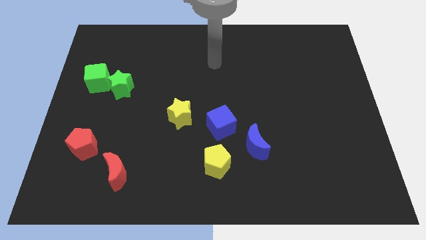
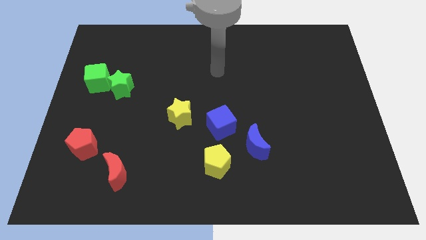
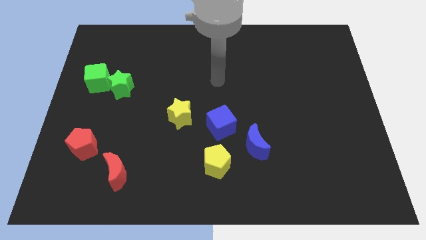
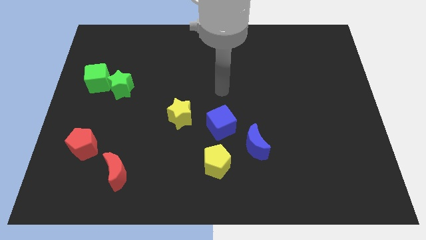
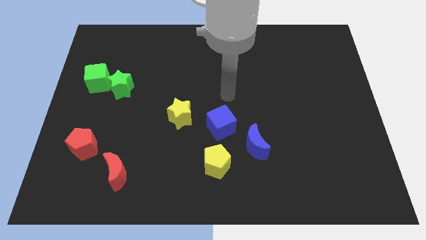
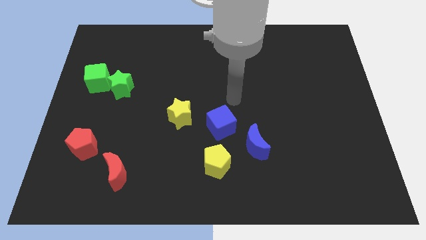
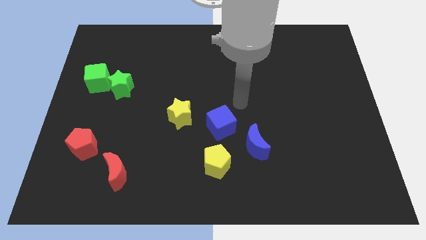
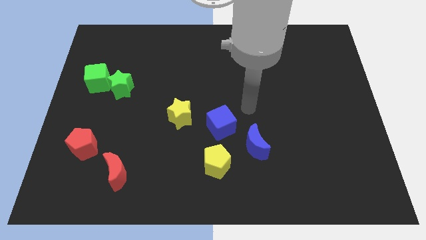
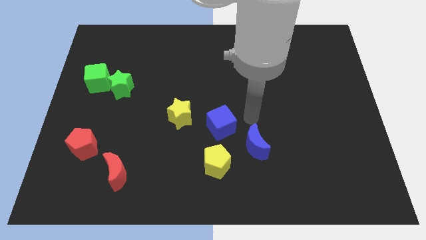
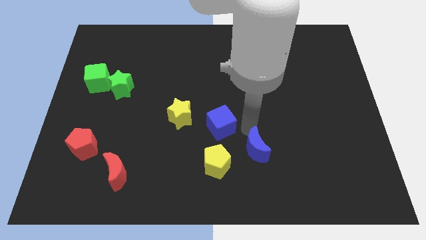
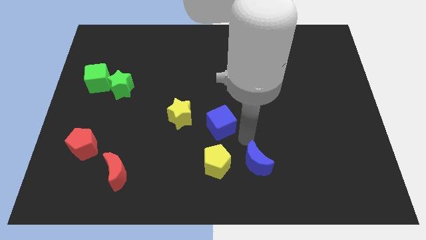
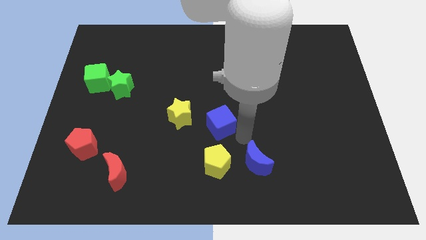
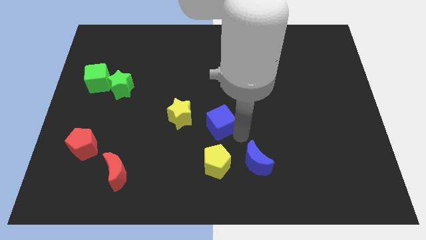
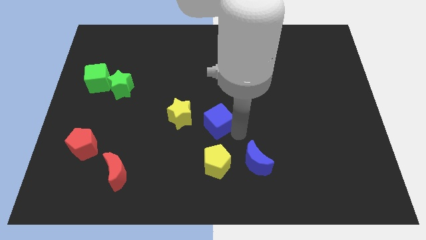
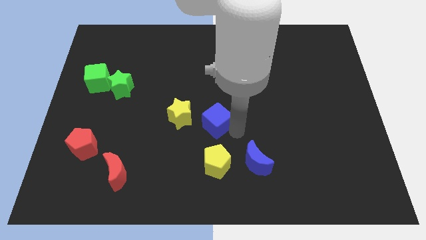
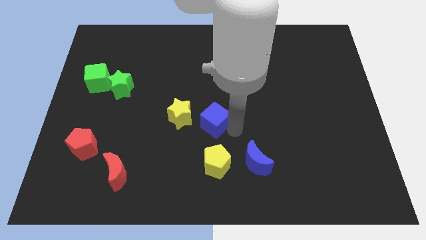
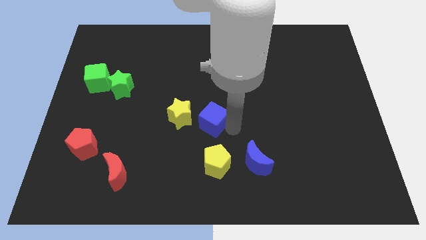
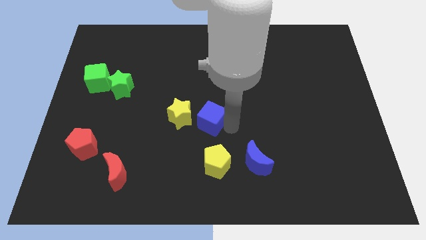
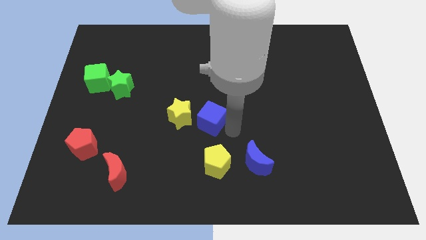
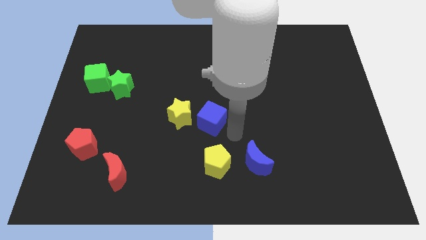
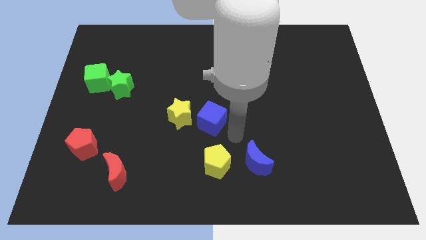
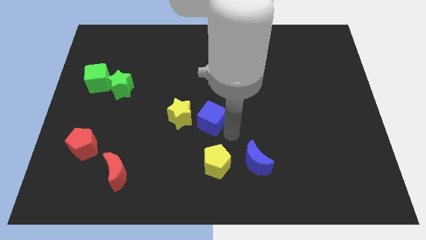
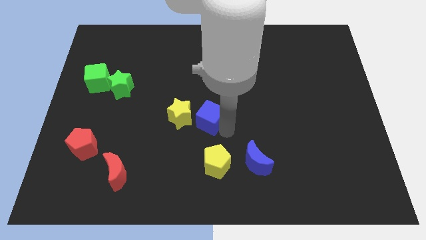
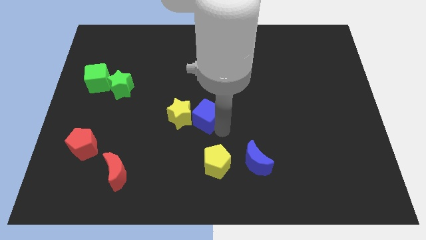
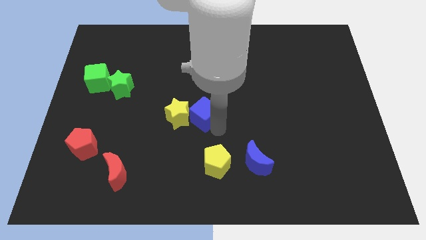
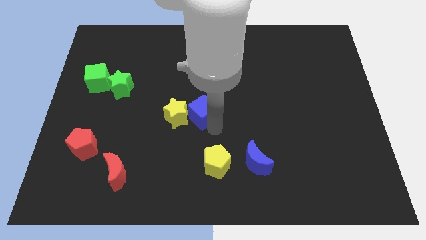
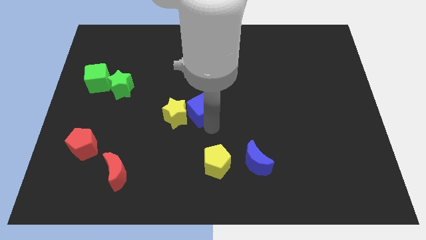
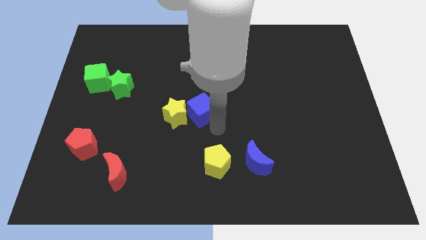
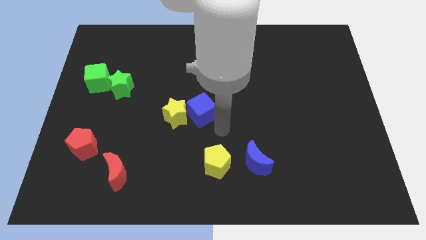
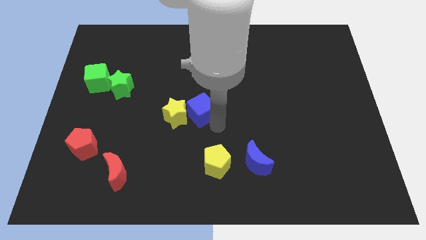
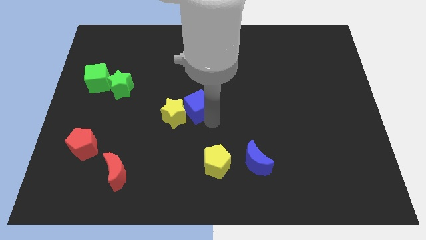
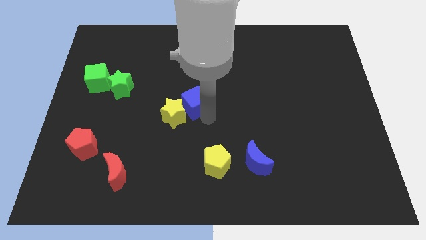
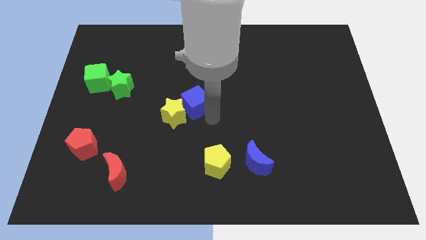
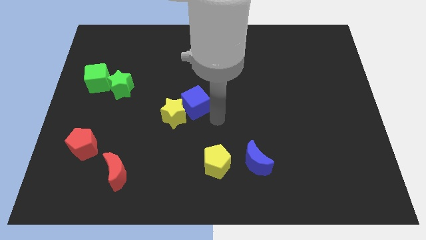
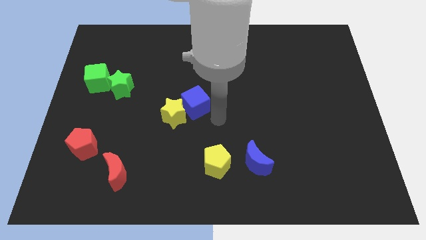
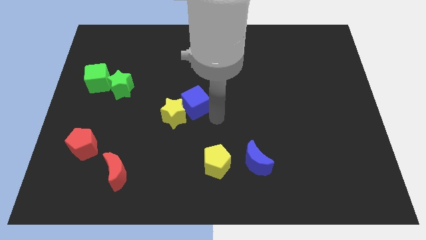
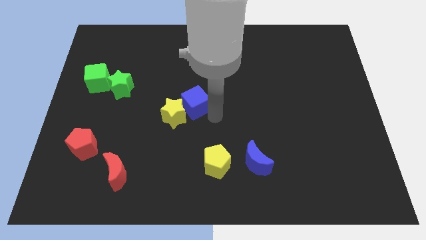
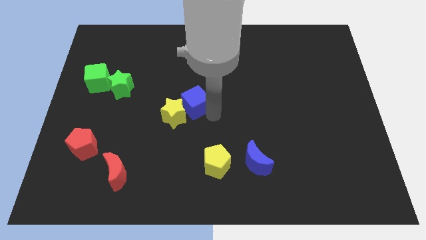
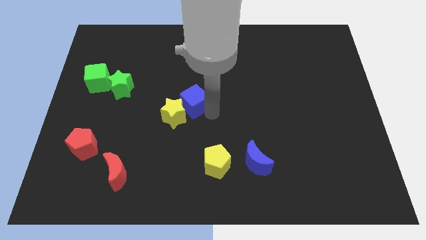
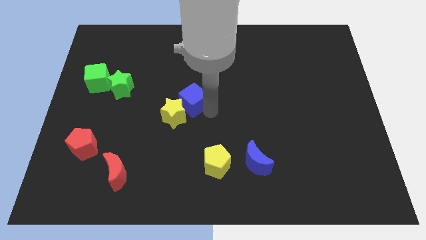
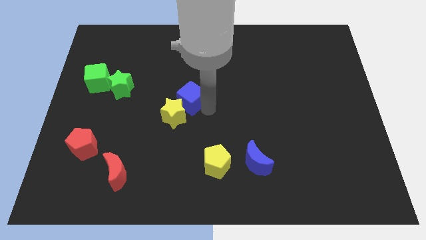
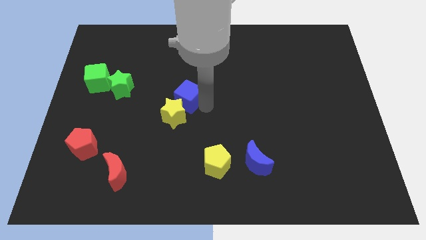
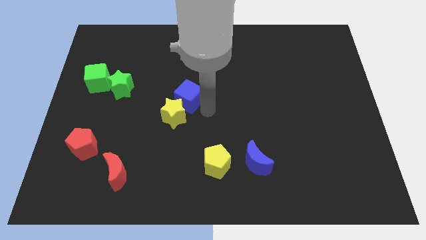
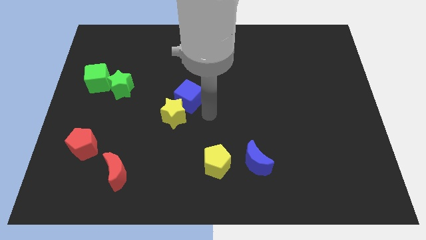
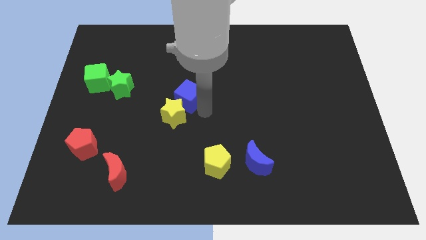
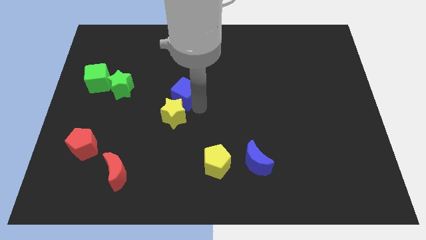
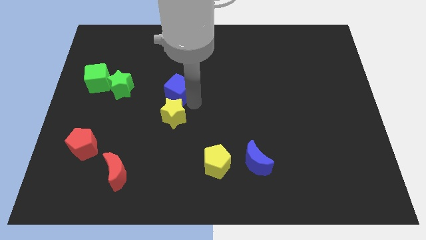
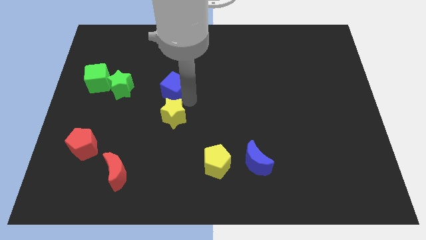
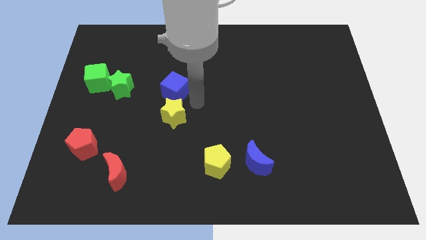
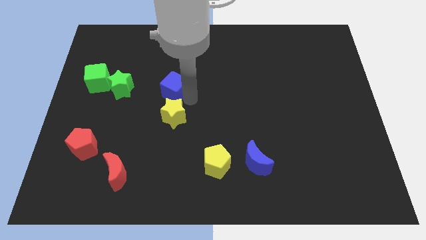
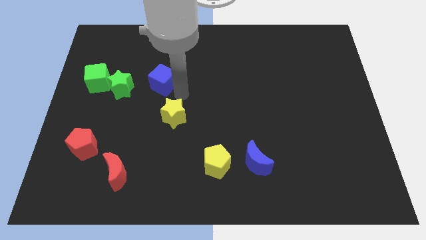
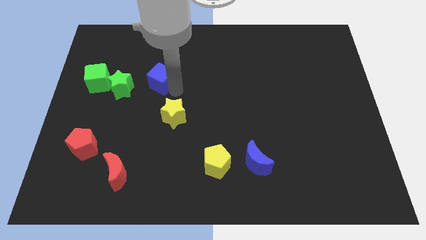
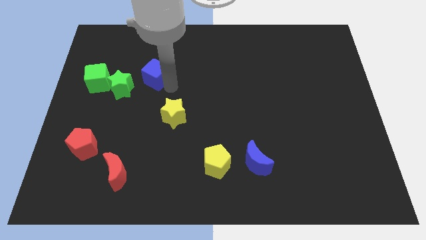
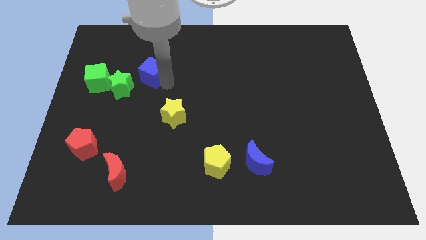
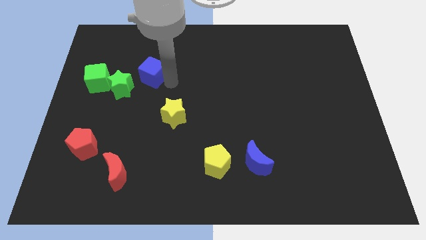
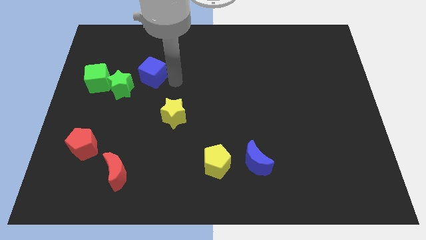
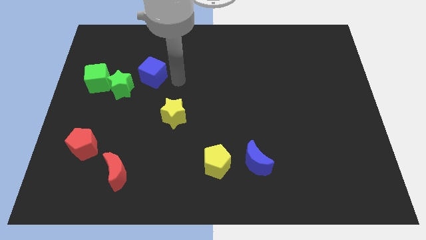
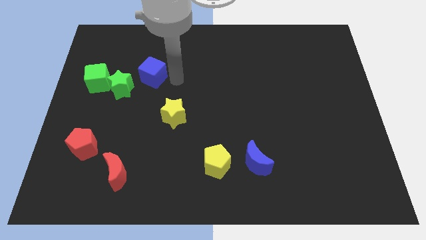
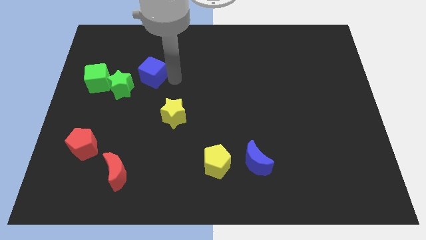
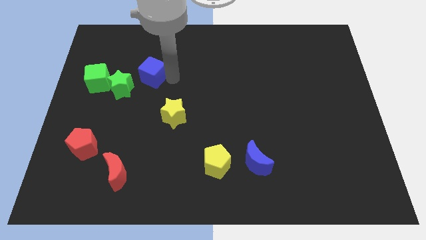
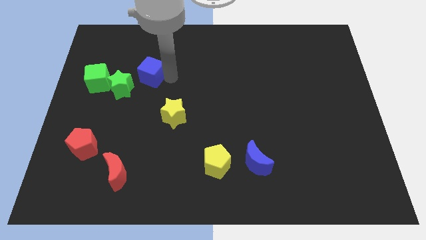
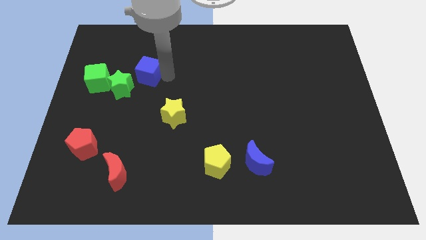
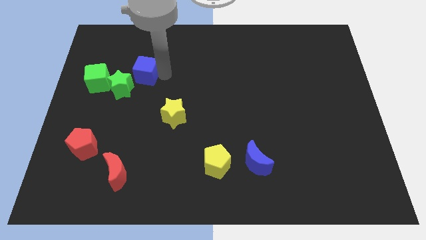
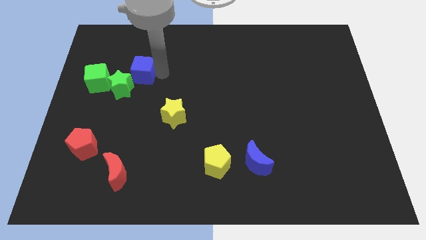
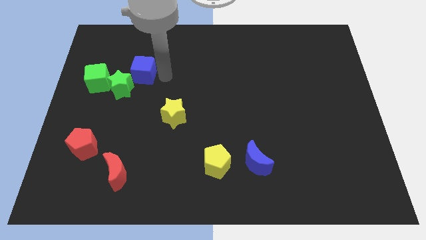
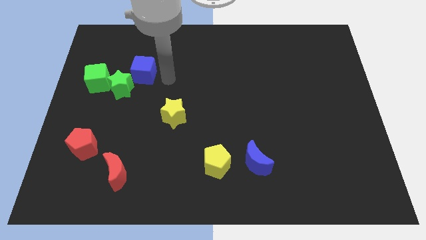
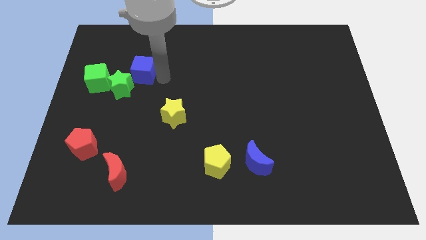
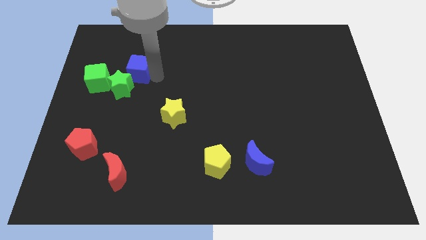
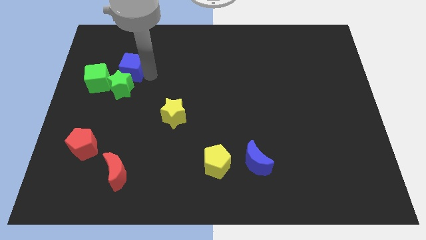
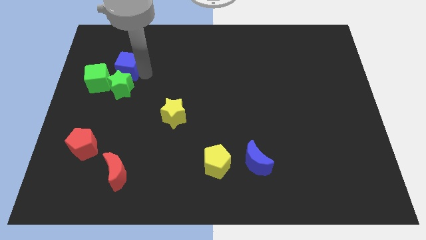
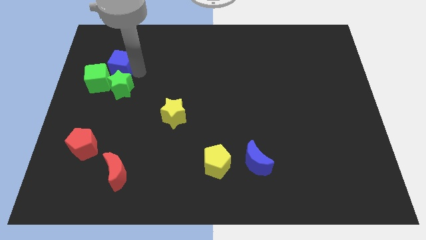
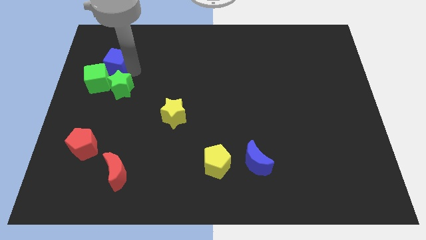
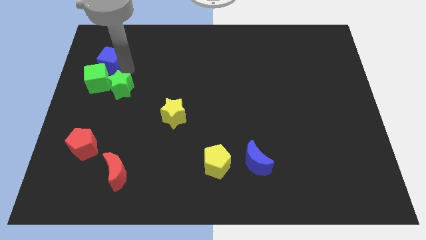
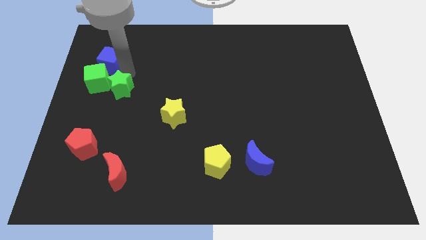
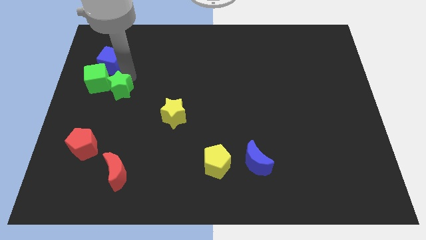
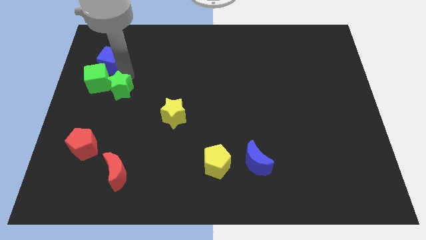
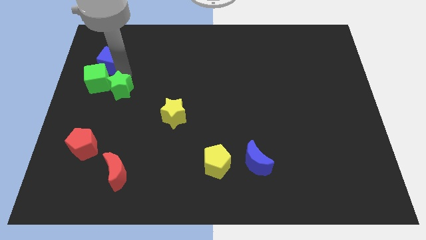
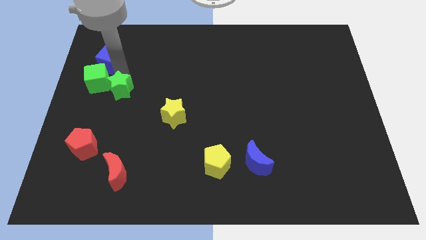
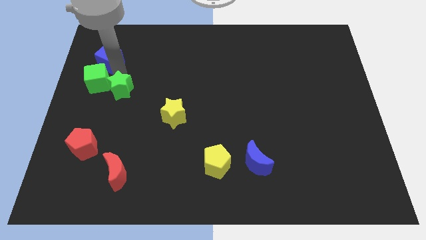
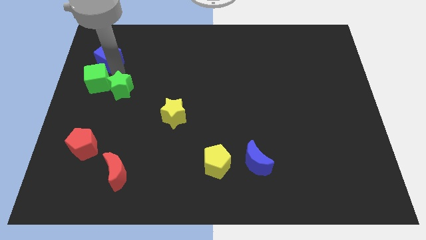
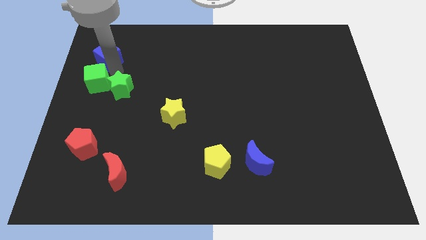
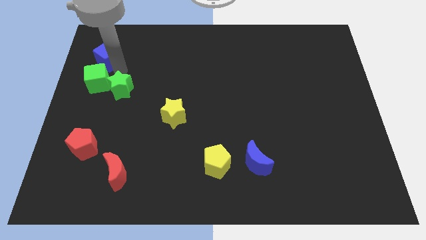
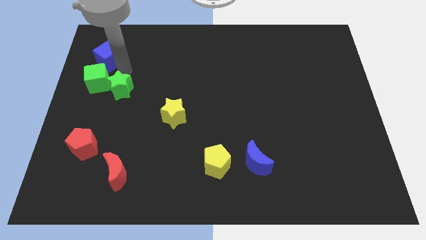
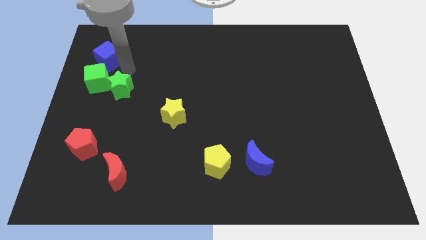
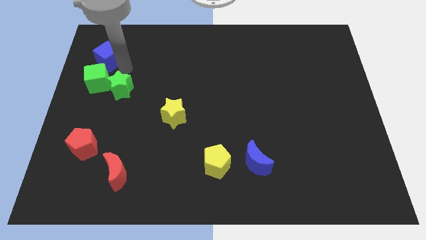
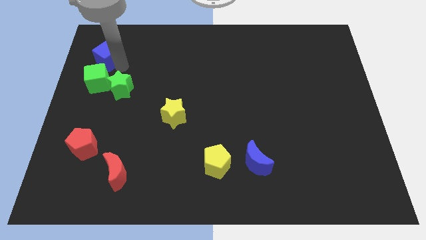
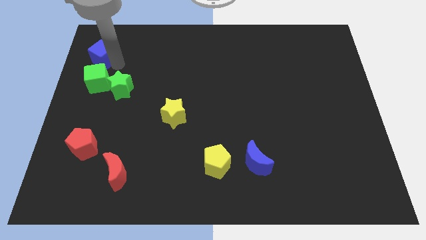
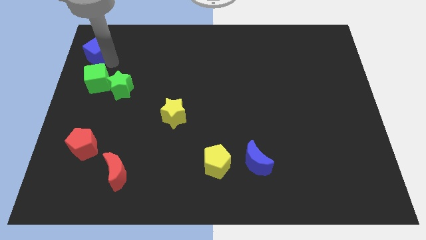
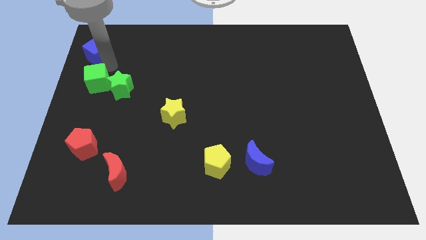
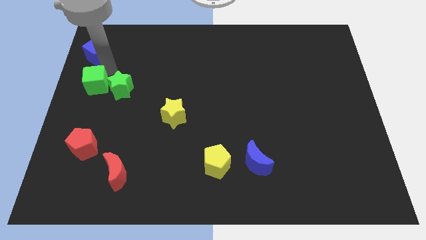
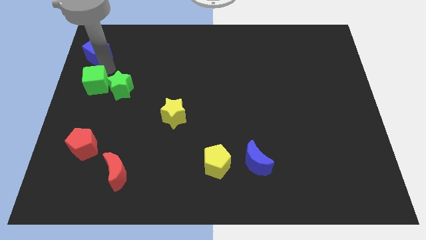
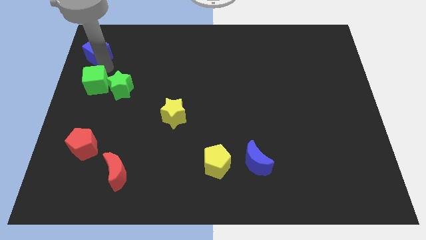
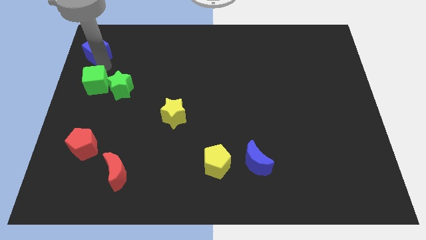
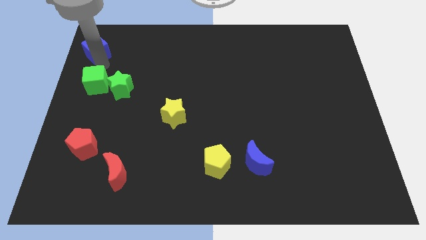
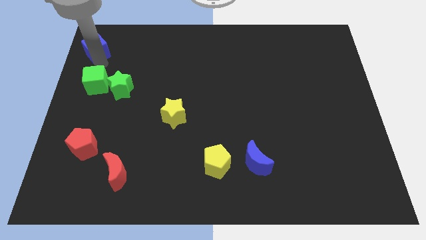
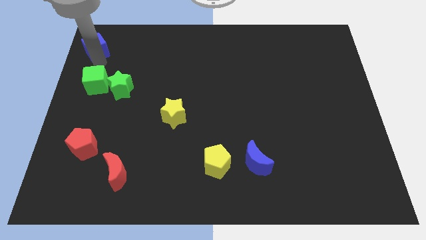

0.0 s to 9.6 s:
push the blue cube to the upper left corner
